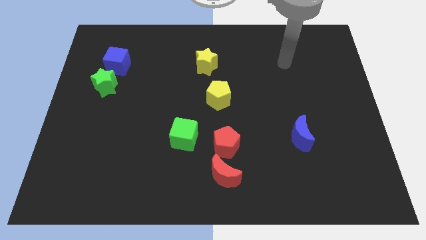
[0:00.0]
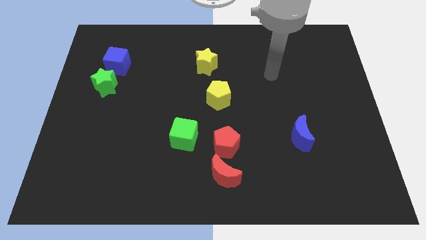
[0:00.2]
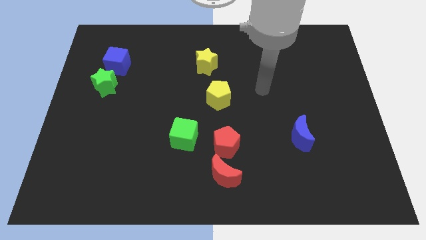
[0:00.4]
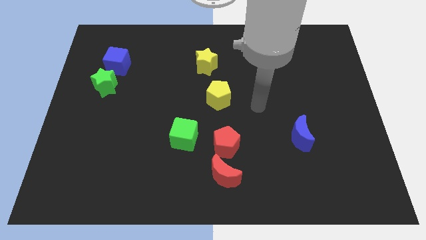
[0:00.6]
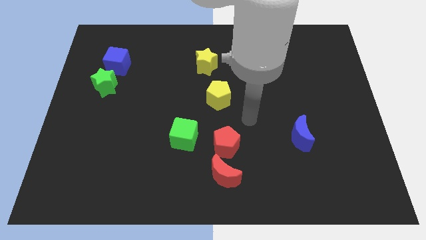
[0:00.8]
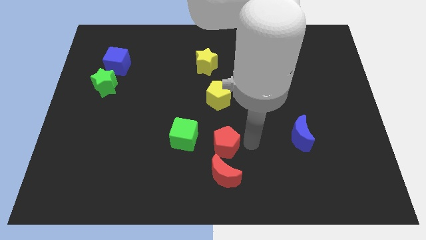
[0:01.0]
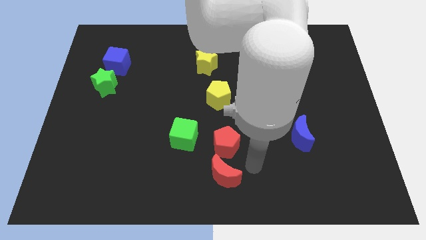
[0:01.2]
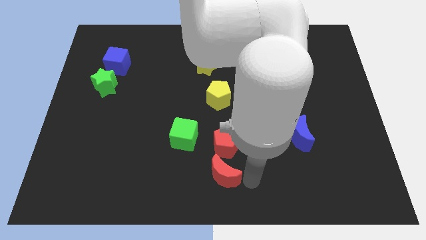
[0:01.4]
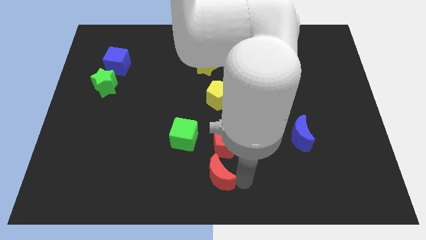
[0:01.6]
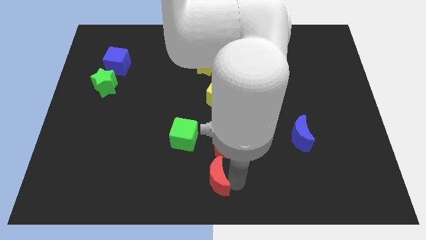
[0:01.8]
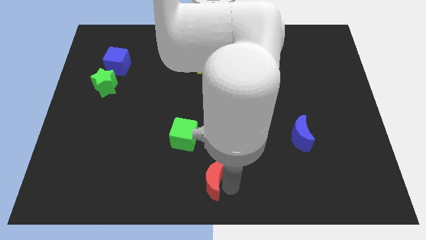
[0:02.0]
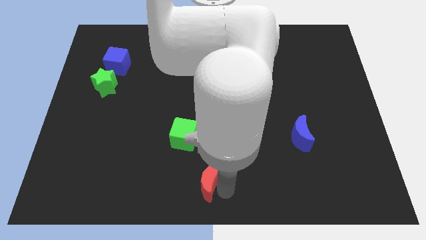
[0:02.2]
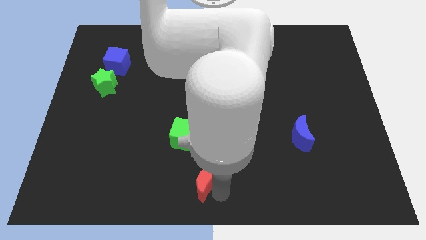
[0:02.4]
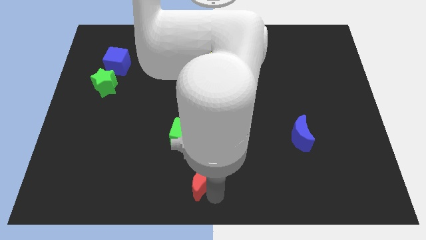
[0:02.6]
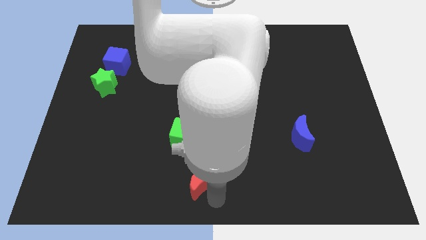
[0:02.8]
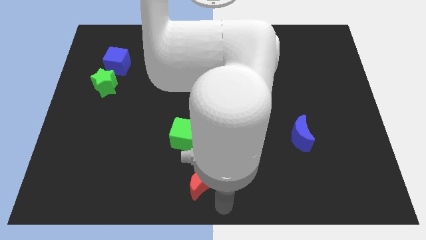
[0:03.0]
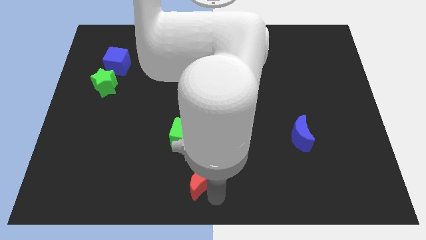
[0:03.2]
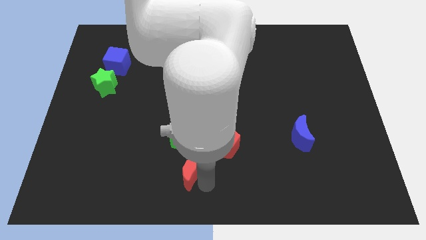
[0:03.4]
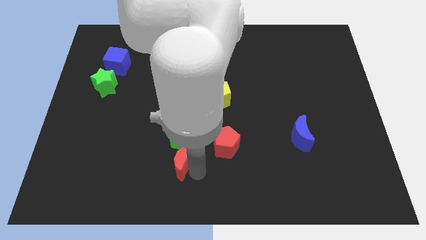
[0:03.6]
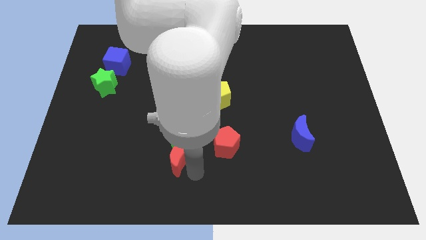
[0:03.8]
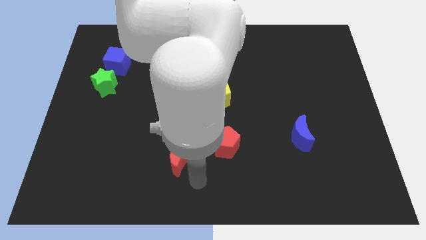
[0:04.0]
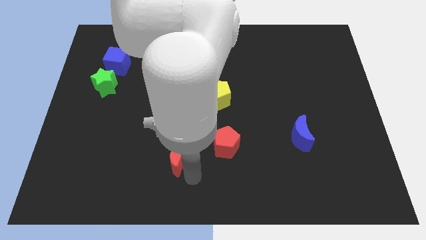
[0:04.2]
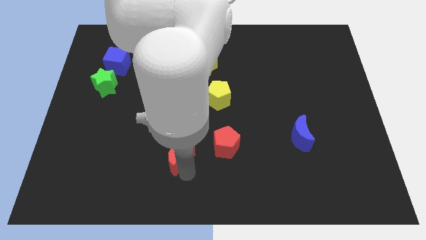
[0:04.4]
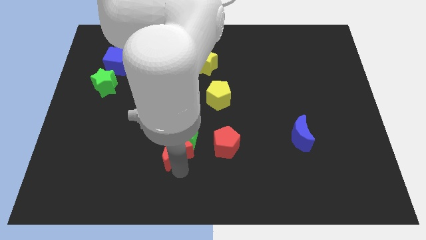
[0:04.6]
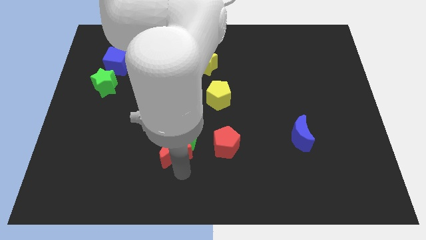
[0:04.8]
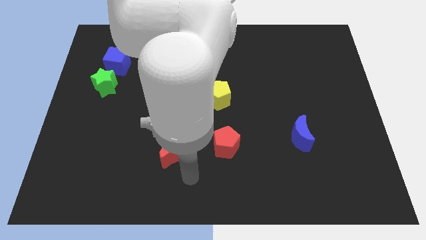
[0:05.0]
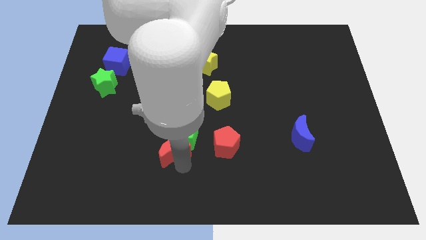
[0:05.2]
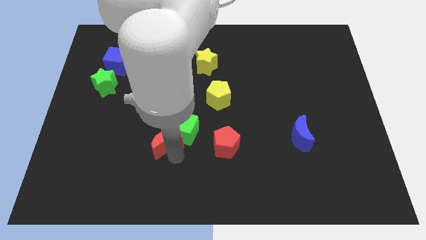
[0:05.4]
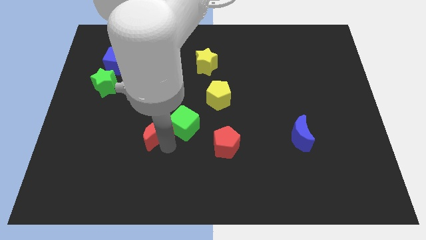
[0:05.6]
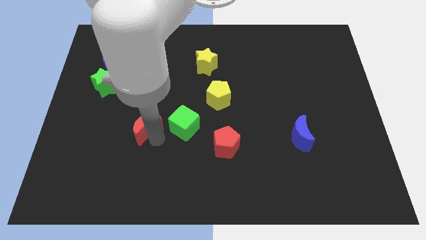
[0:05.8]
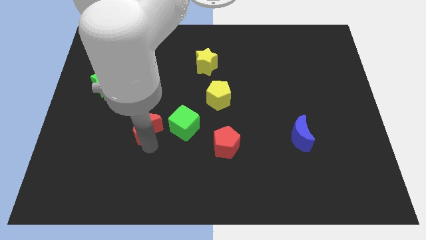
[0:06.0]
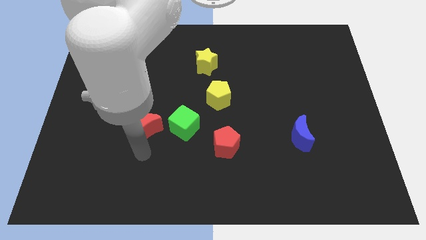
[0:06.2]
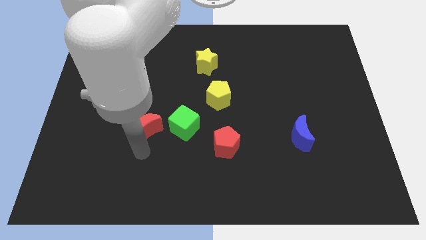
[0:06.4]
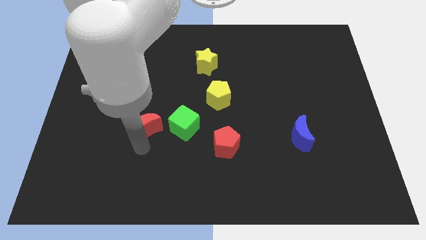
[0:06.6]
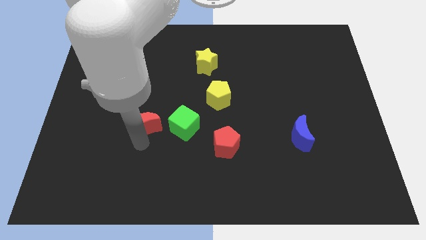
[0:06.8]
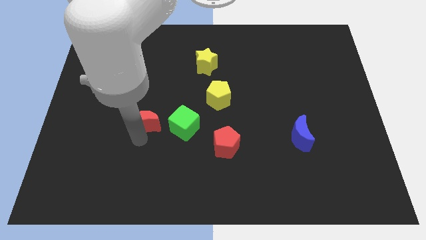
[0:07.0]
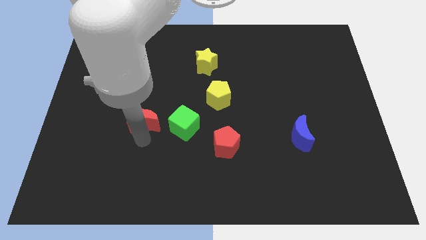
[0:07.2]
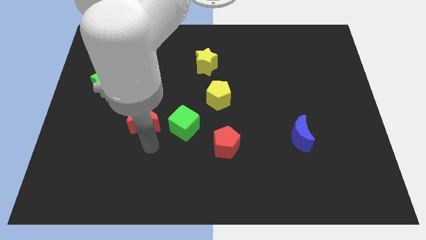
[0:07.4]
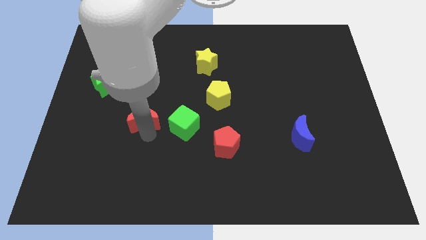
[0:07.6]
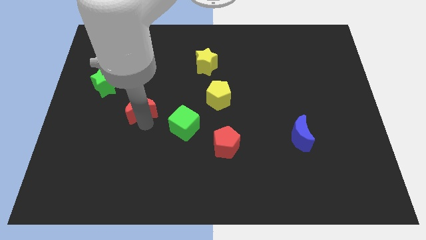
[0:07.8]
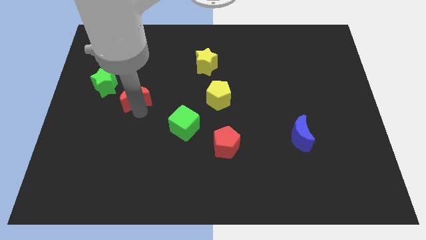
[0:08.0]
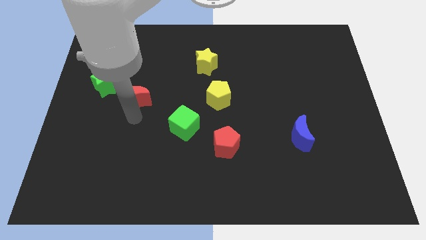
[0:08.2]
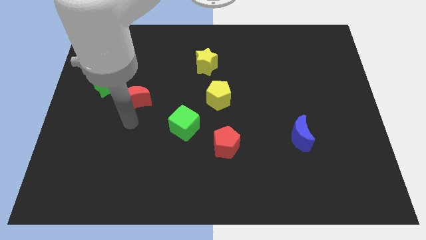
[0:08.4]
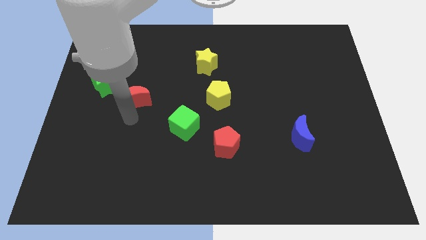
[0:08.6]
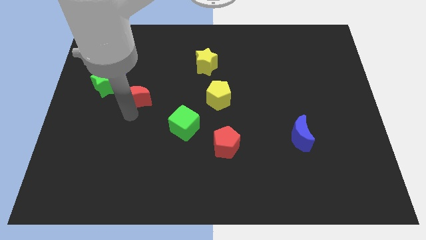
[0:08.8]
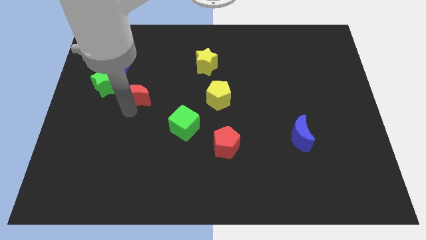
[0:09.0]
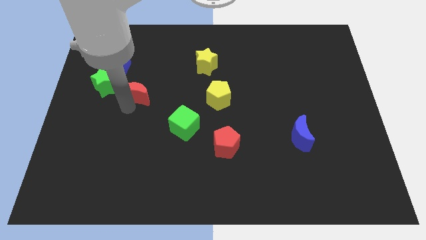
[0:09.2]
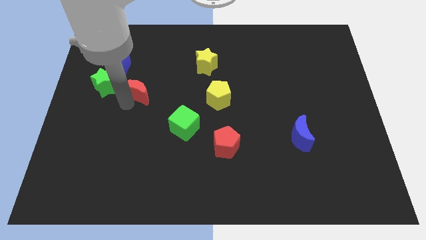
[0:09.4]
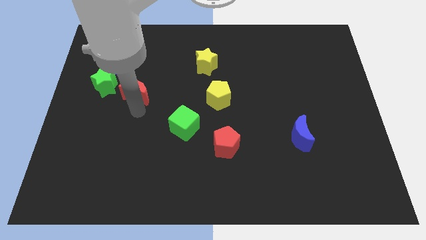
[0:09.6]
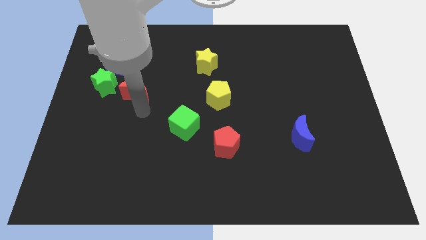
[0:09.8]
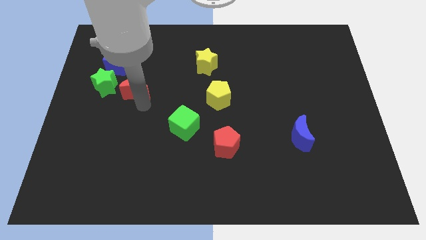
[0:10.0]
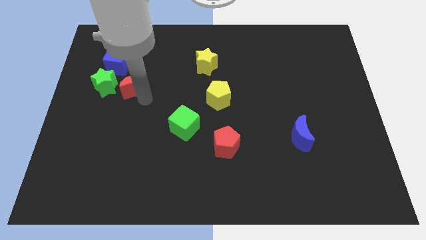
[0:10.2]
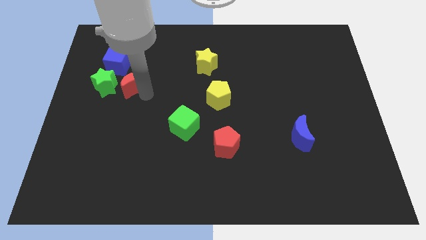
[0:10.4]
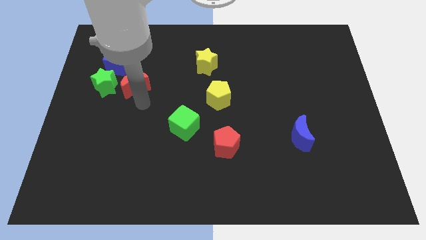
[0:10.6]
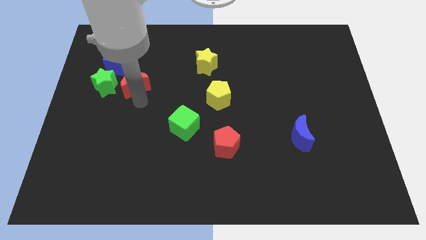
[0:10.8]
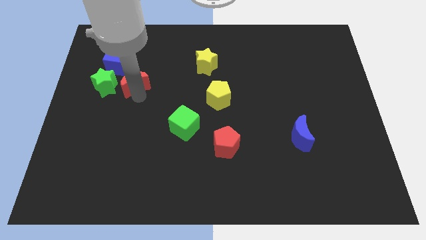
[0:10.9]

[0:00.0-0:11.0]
slide the red moon to the top right side of the green star

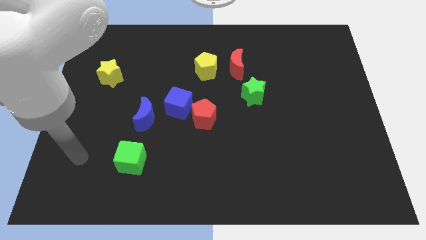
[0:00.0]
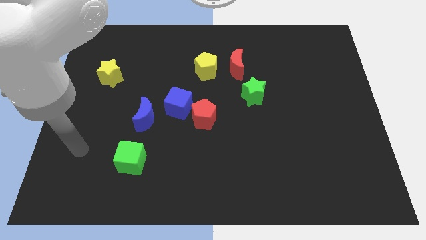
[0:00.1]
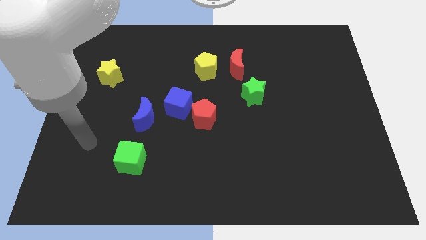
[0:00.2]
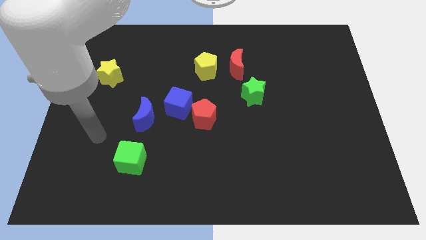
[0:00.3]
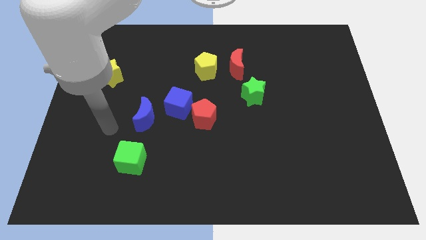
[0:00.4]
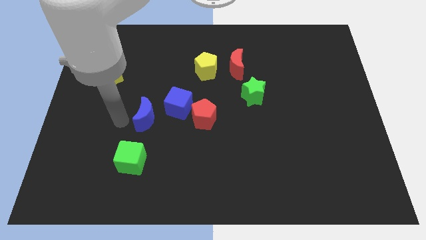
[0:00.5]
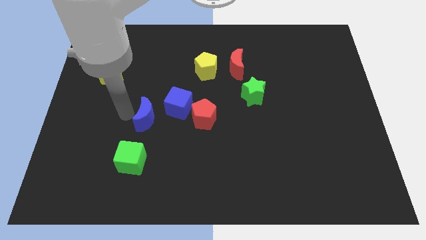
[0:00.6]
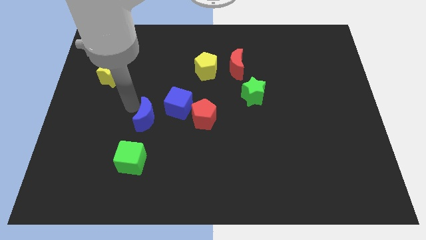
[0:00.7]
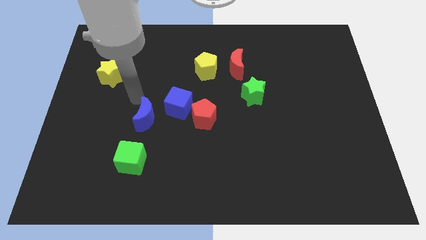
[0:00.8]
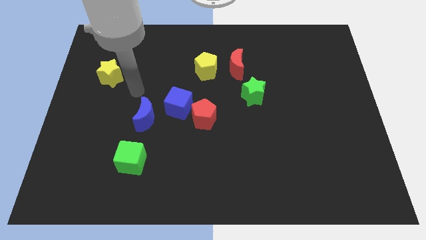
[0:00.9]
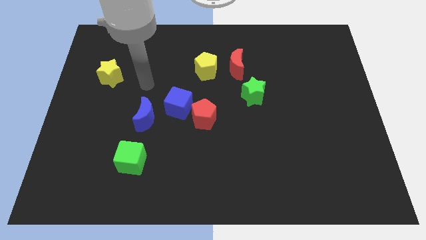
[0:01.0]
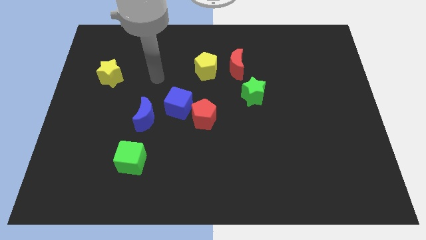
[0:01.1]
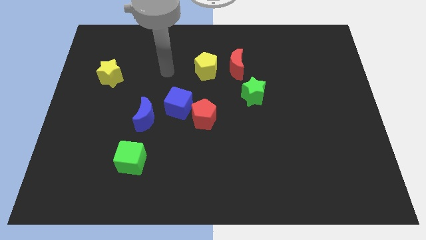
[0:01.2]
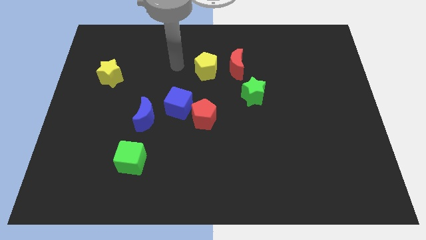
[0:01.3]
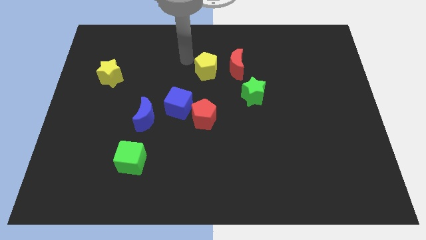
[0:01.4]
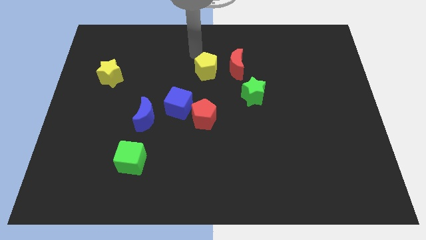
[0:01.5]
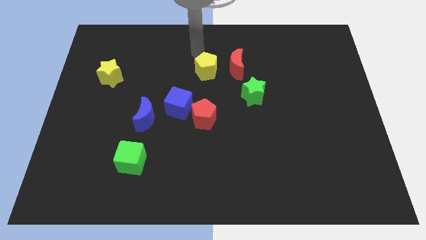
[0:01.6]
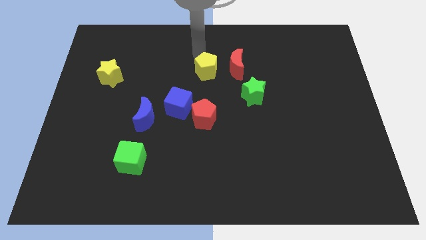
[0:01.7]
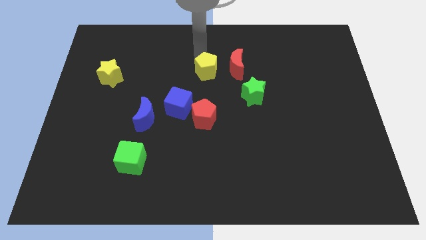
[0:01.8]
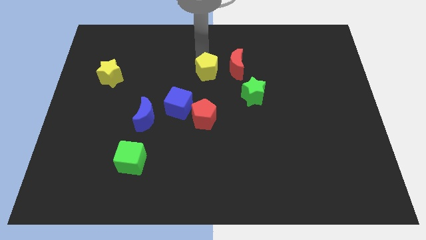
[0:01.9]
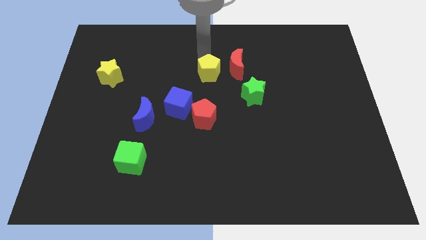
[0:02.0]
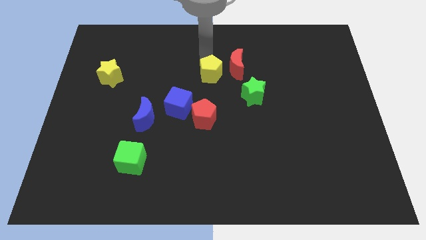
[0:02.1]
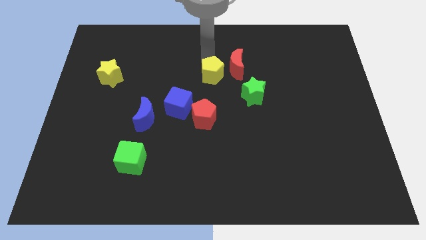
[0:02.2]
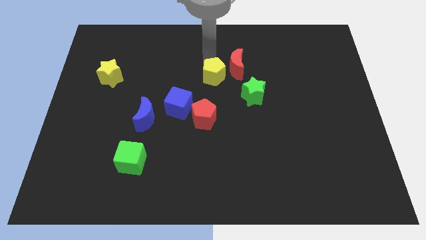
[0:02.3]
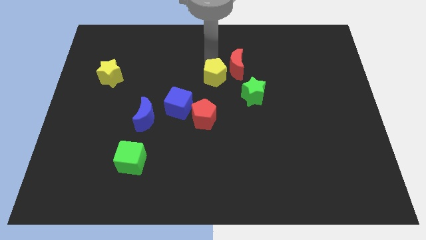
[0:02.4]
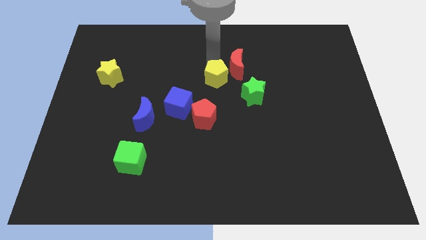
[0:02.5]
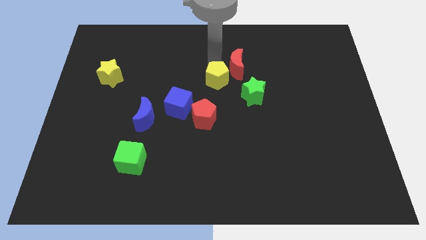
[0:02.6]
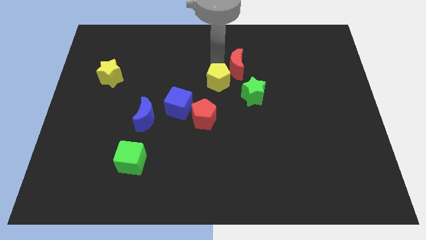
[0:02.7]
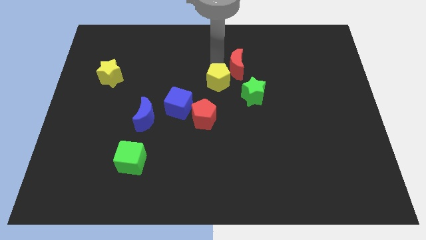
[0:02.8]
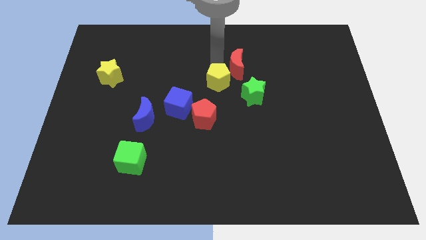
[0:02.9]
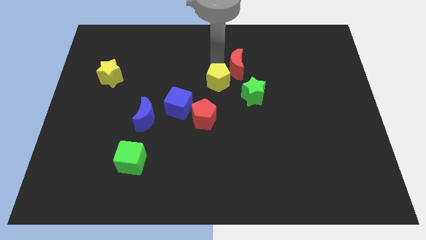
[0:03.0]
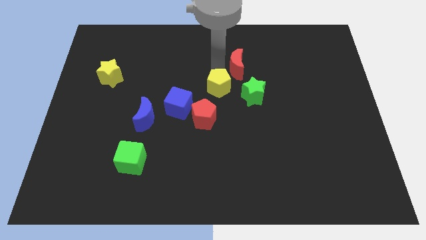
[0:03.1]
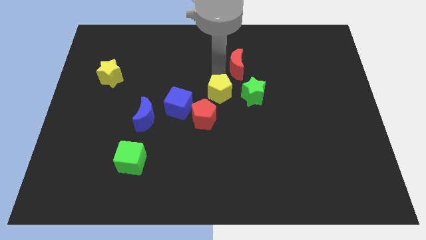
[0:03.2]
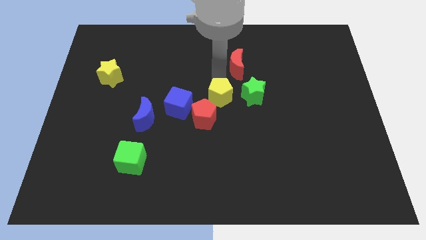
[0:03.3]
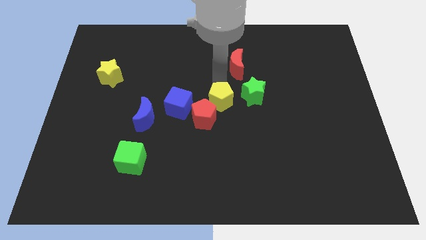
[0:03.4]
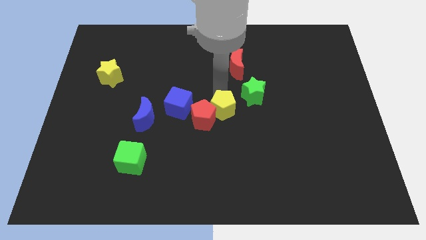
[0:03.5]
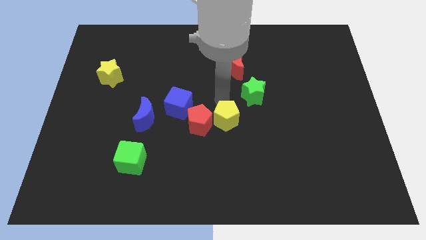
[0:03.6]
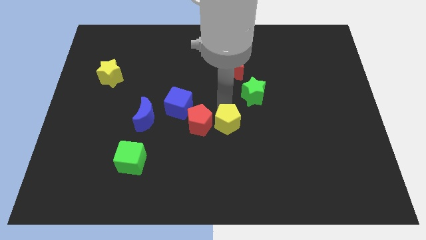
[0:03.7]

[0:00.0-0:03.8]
push the yellow pentagon to the bottom right of the red pentagon
